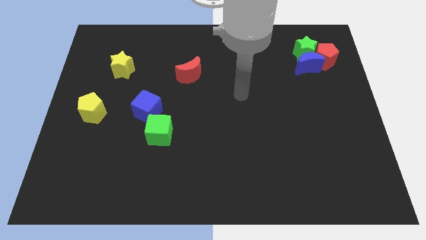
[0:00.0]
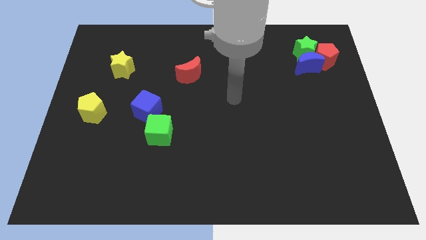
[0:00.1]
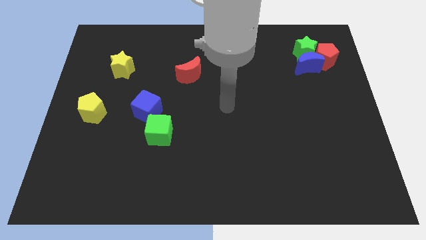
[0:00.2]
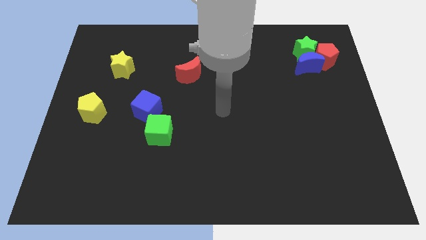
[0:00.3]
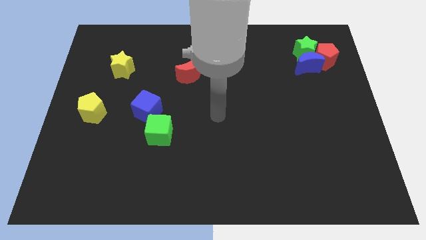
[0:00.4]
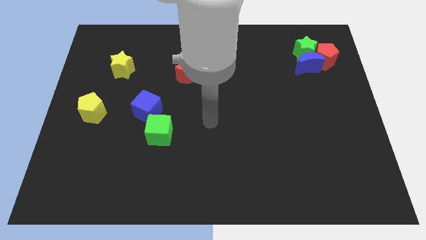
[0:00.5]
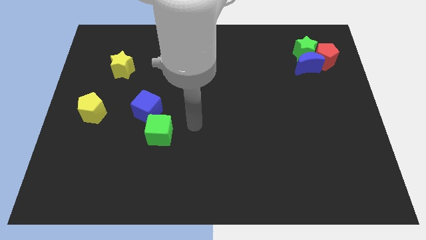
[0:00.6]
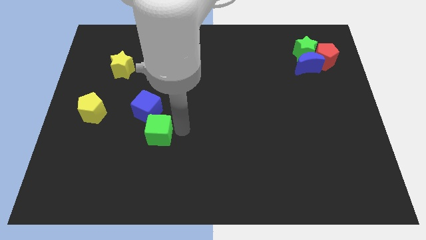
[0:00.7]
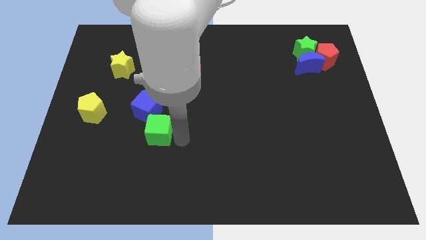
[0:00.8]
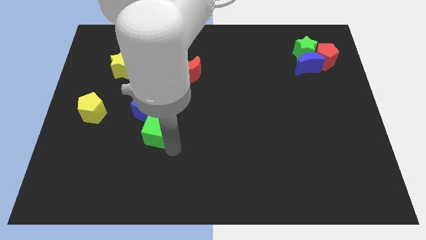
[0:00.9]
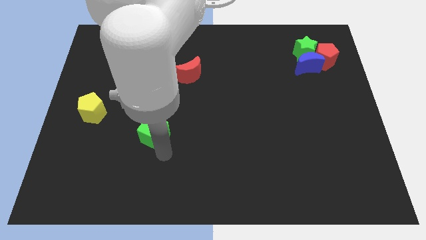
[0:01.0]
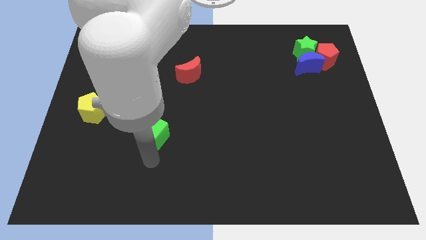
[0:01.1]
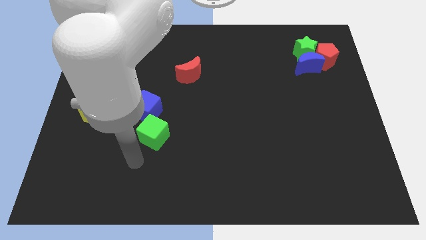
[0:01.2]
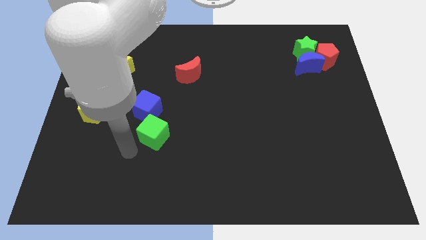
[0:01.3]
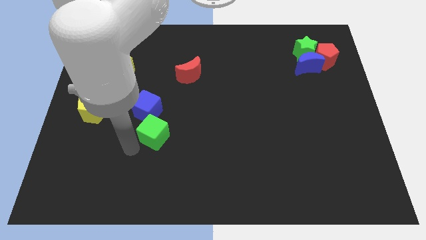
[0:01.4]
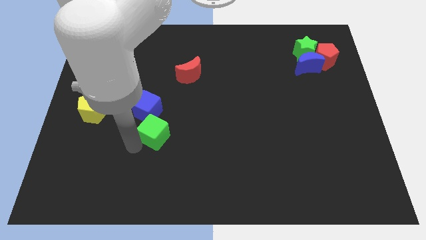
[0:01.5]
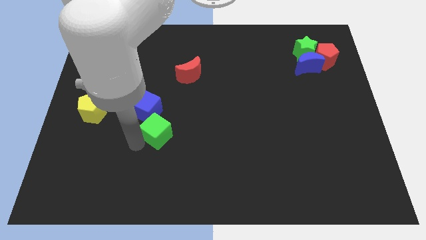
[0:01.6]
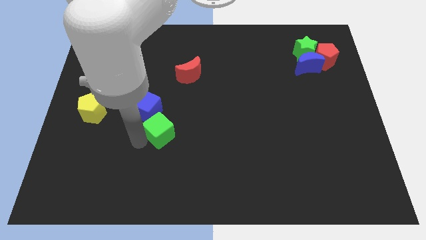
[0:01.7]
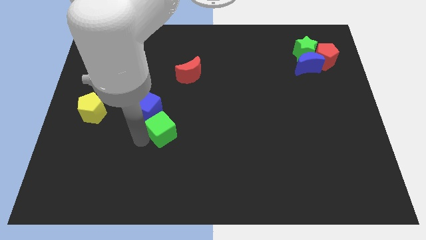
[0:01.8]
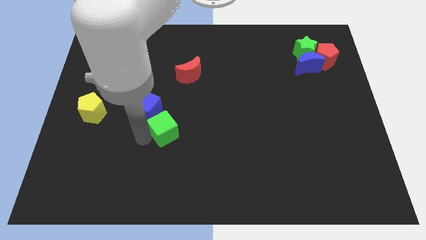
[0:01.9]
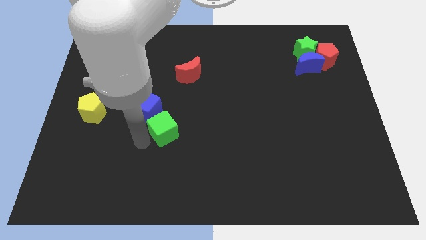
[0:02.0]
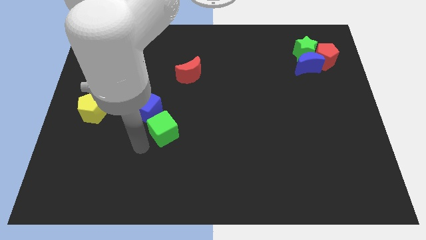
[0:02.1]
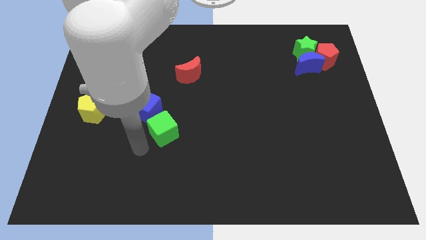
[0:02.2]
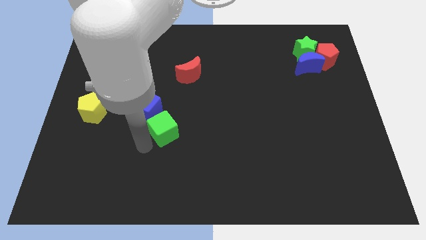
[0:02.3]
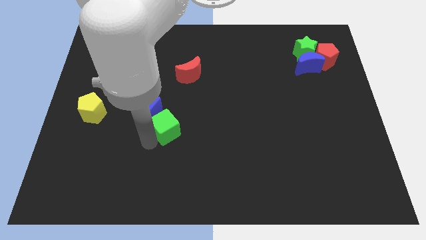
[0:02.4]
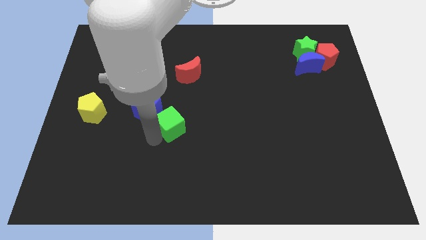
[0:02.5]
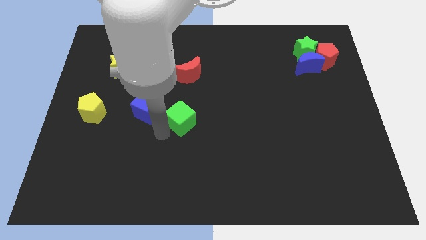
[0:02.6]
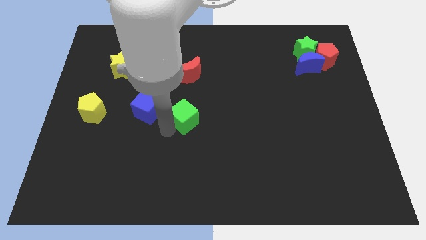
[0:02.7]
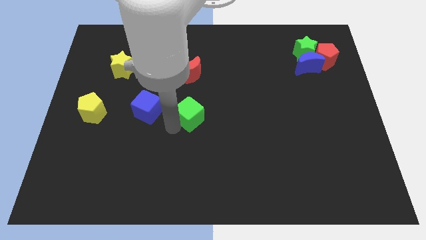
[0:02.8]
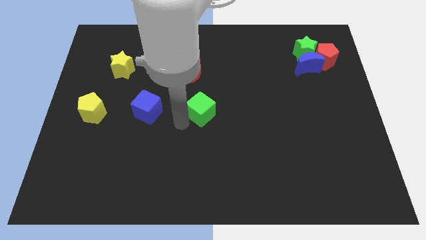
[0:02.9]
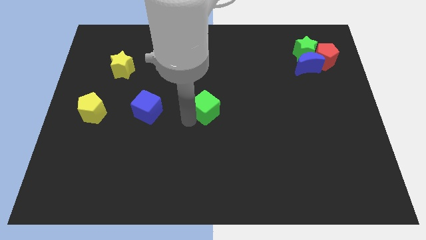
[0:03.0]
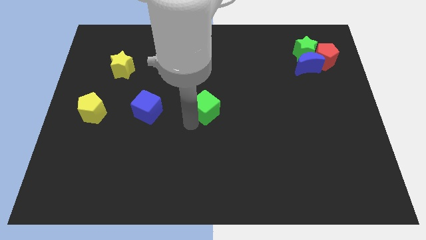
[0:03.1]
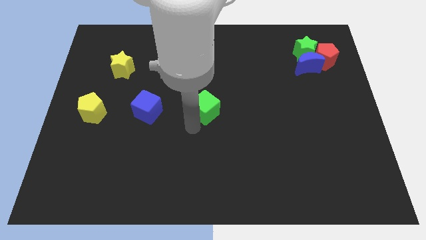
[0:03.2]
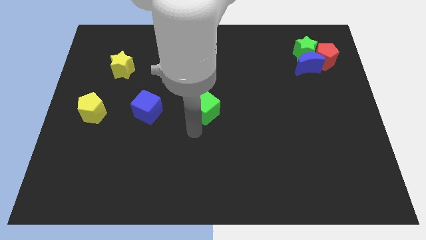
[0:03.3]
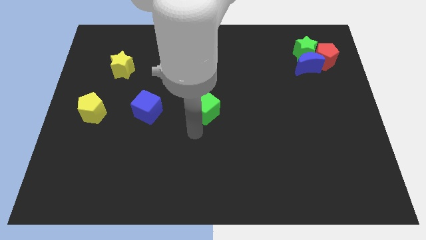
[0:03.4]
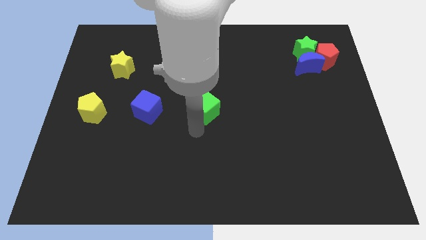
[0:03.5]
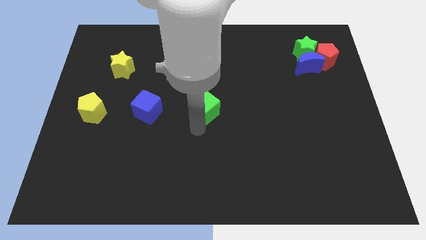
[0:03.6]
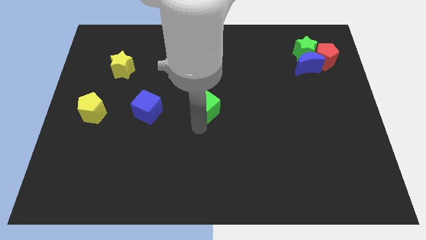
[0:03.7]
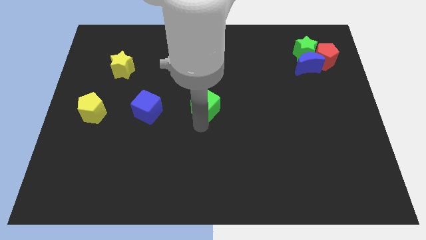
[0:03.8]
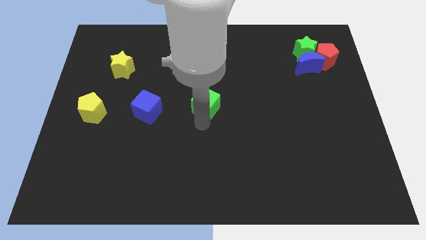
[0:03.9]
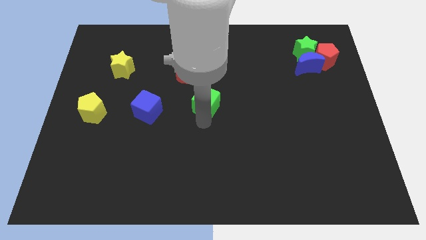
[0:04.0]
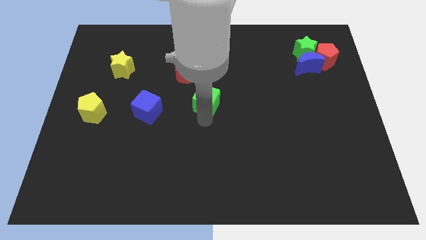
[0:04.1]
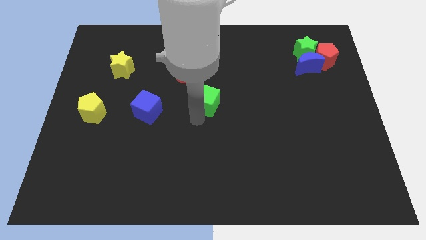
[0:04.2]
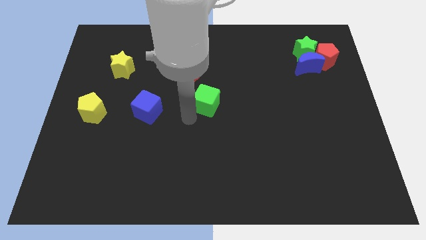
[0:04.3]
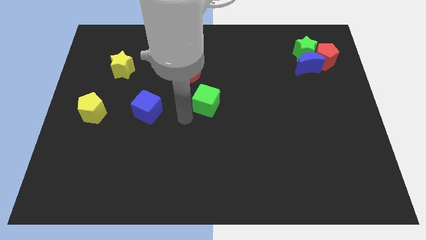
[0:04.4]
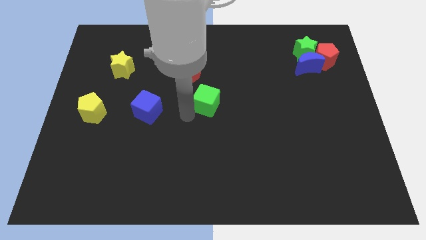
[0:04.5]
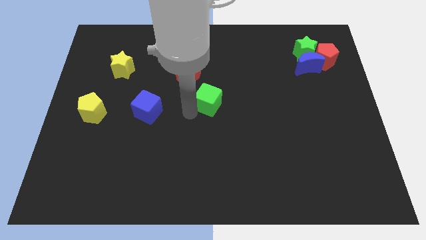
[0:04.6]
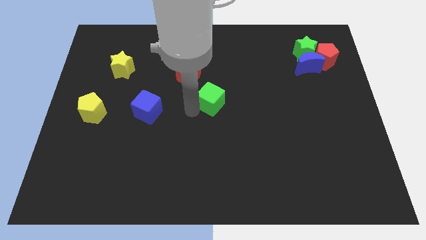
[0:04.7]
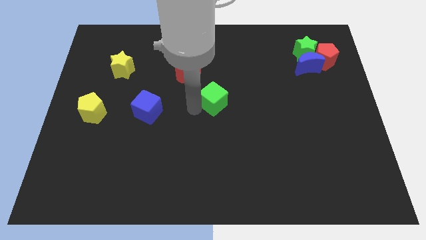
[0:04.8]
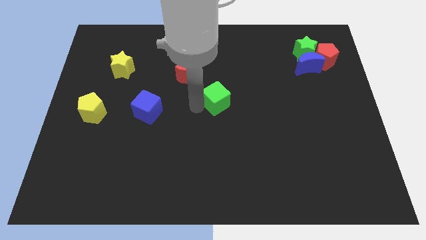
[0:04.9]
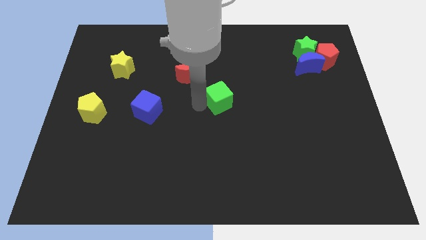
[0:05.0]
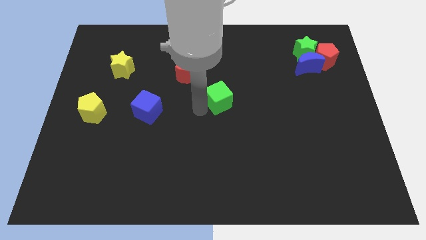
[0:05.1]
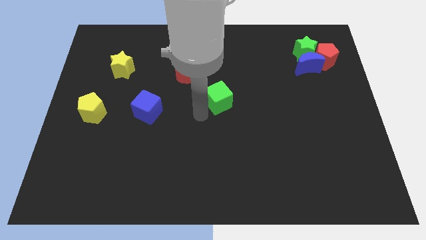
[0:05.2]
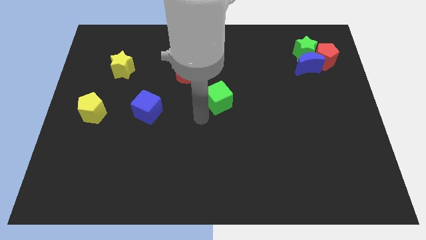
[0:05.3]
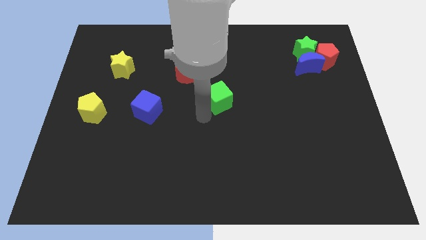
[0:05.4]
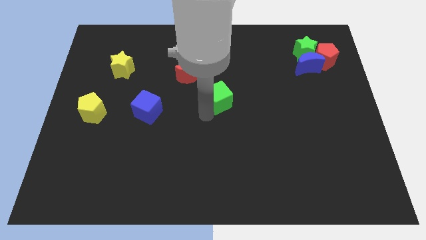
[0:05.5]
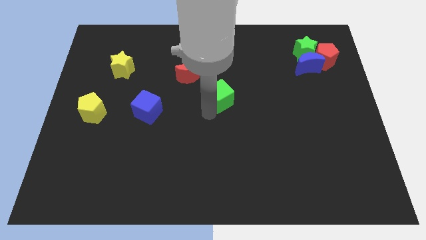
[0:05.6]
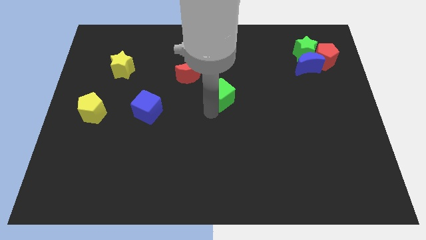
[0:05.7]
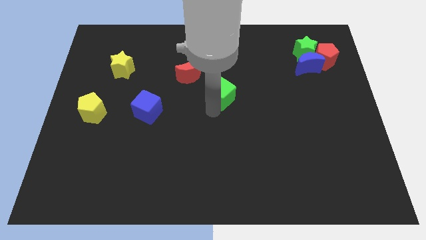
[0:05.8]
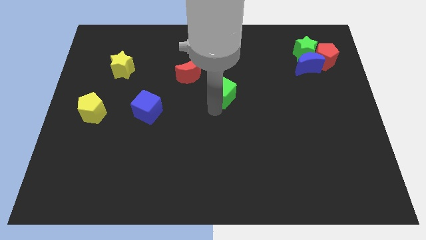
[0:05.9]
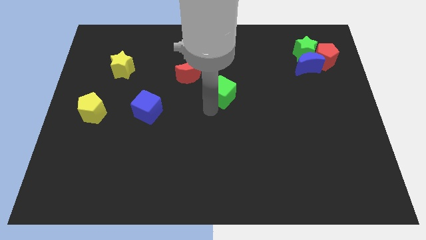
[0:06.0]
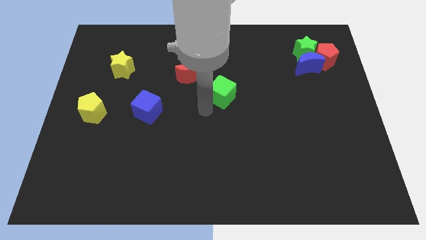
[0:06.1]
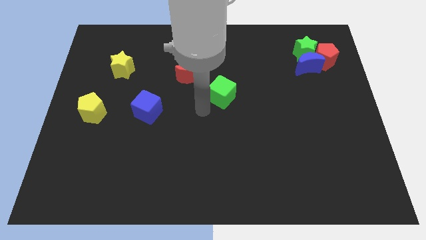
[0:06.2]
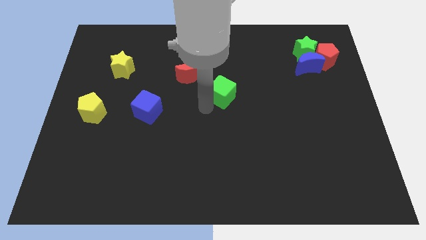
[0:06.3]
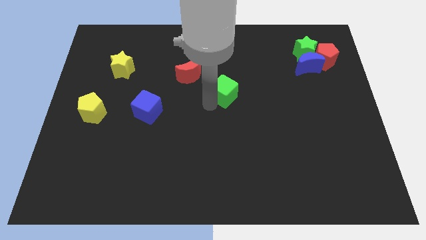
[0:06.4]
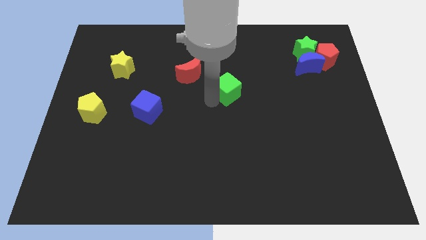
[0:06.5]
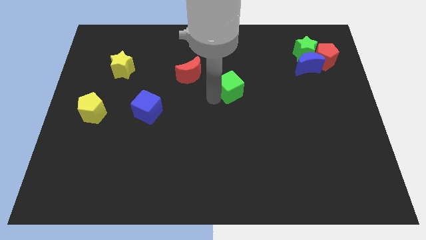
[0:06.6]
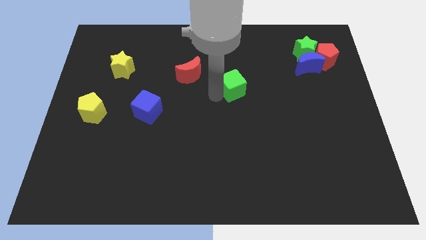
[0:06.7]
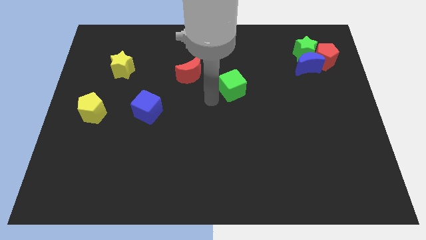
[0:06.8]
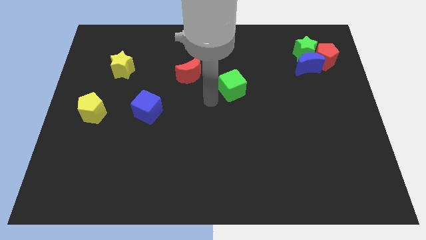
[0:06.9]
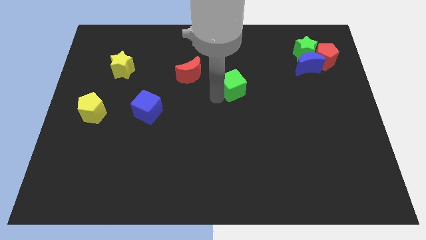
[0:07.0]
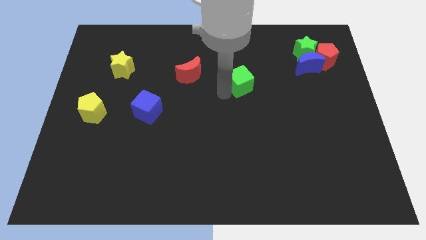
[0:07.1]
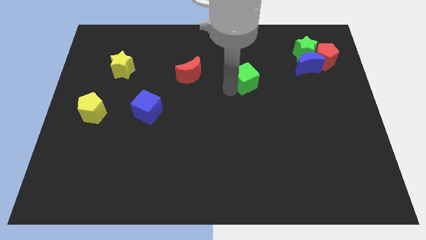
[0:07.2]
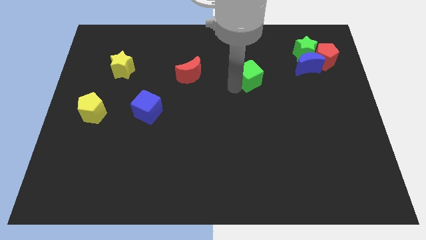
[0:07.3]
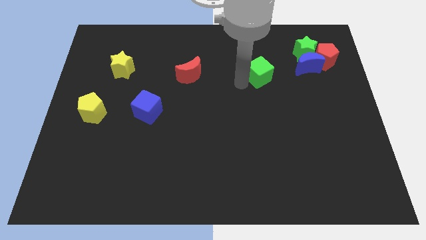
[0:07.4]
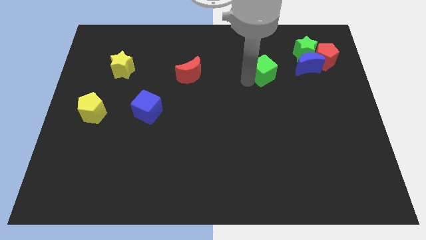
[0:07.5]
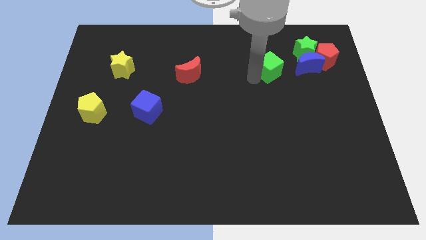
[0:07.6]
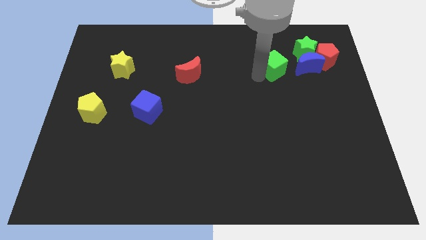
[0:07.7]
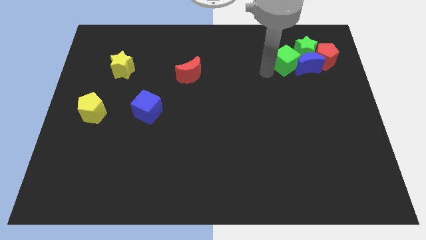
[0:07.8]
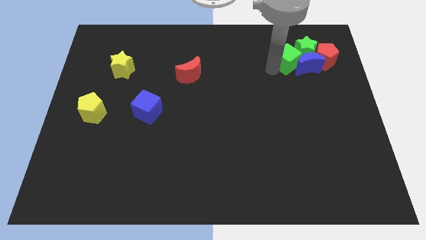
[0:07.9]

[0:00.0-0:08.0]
put the green cube next to the green star
